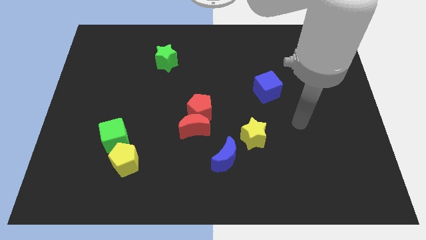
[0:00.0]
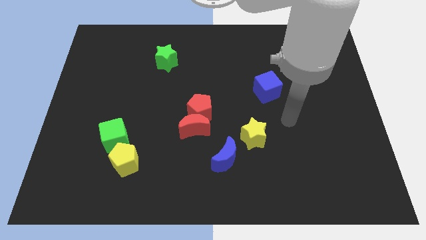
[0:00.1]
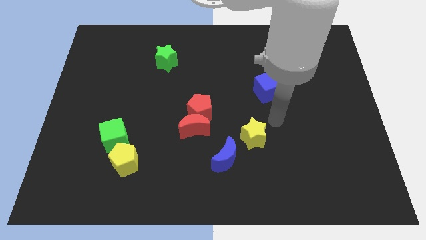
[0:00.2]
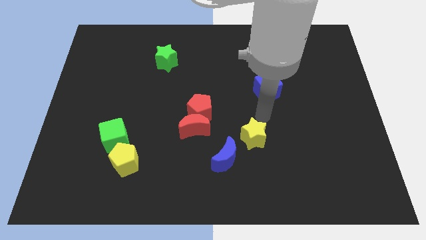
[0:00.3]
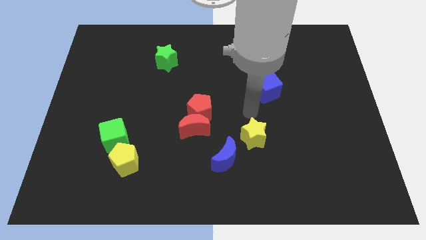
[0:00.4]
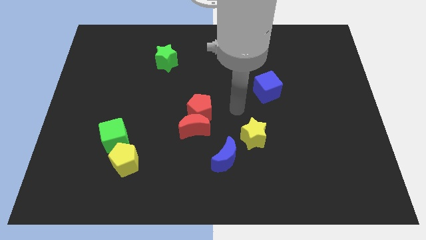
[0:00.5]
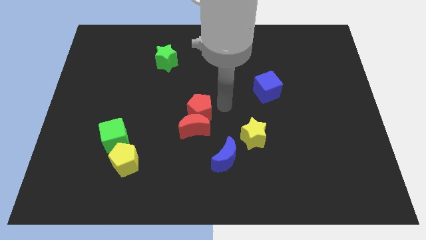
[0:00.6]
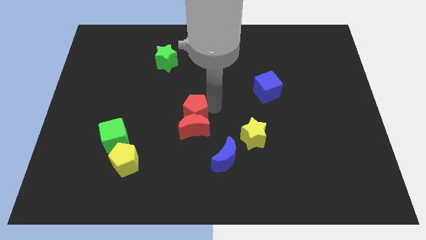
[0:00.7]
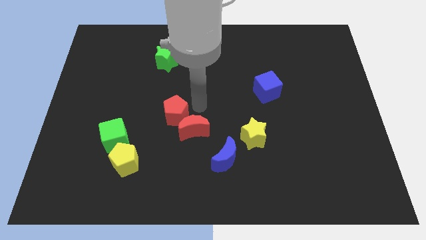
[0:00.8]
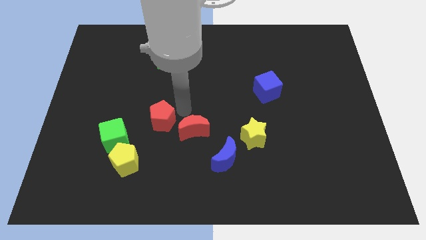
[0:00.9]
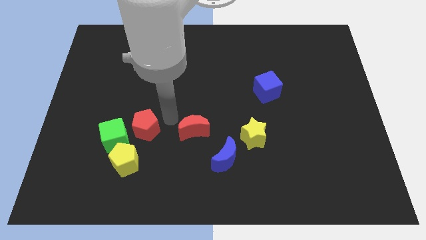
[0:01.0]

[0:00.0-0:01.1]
move the red moon away from the red pentagon

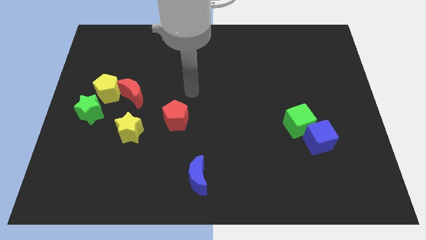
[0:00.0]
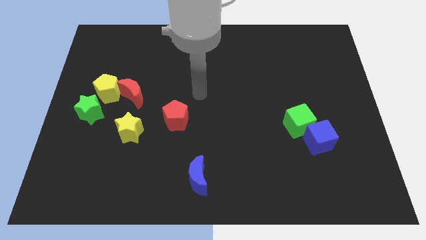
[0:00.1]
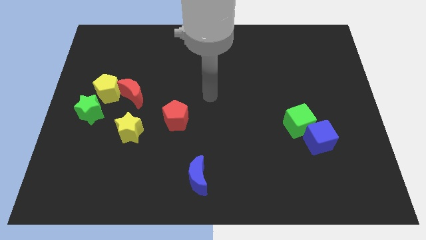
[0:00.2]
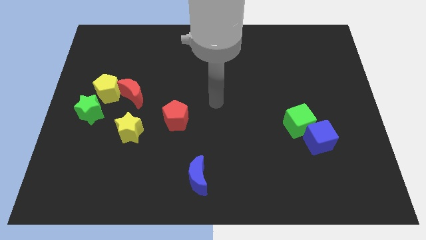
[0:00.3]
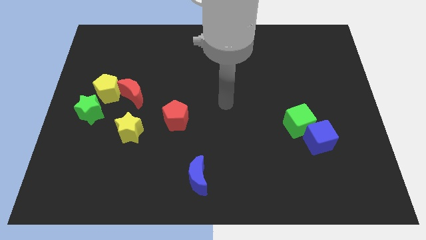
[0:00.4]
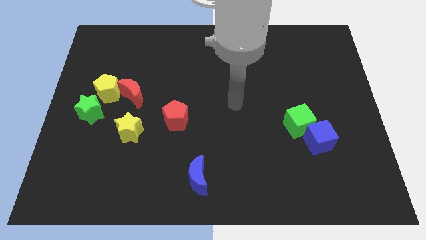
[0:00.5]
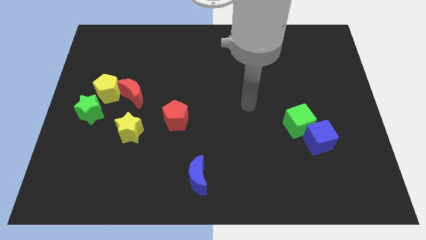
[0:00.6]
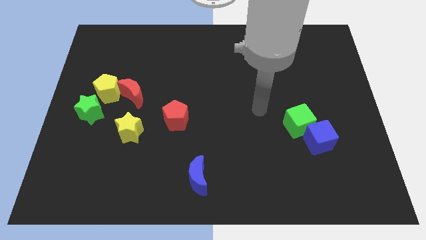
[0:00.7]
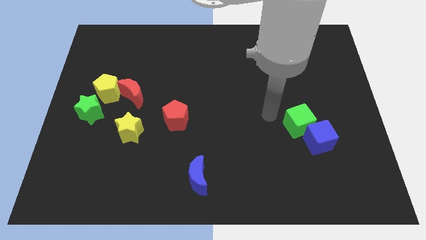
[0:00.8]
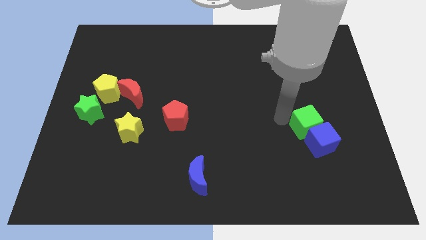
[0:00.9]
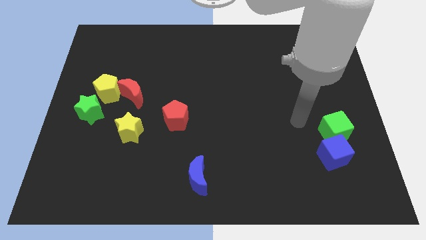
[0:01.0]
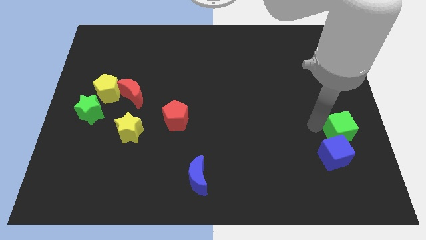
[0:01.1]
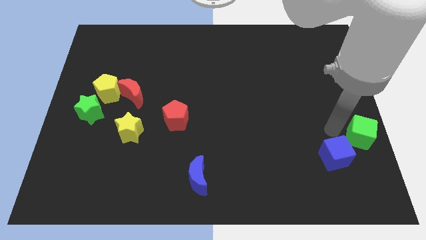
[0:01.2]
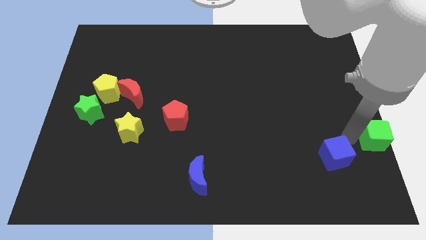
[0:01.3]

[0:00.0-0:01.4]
separate the blue cube from the green cube

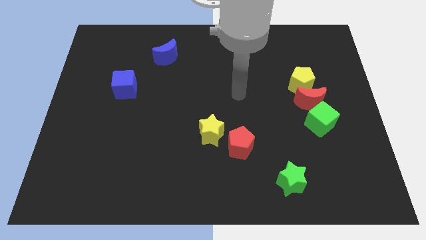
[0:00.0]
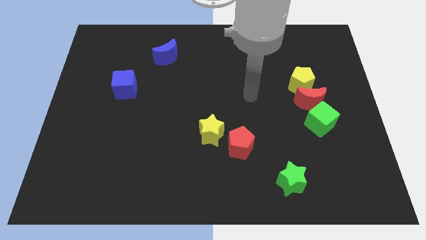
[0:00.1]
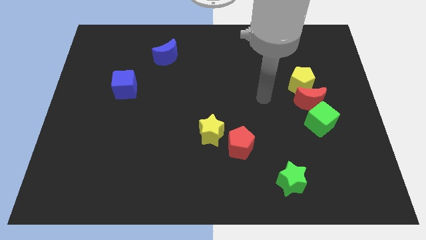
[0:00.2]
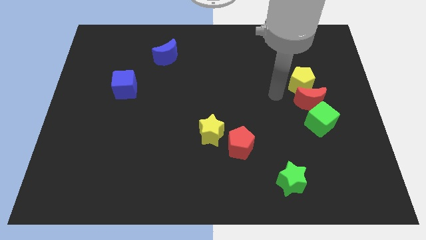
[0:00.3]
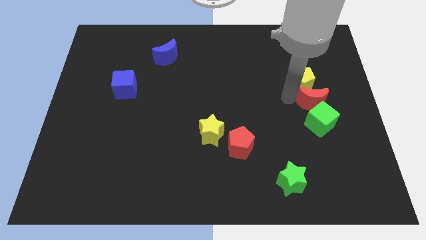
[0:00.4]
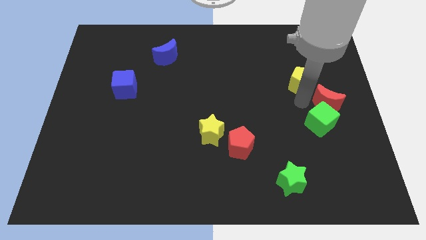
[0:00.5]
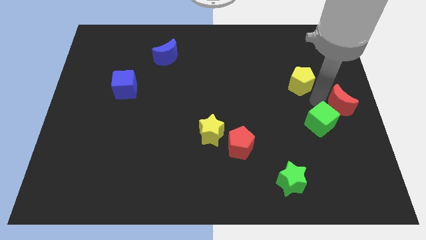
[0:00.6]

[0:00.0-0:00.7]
separate the yellow pentagon from the red moon

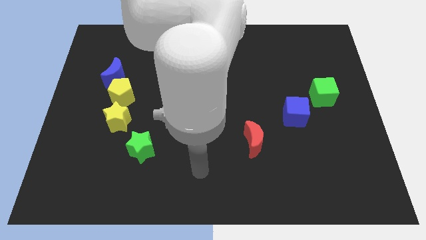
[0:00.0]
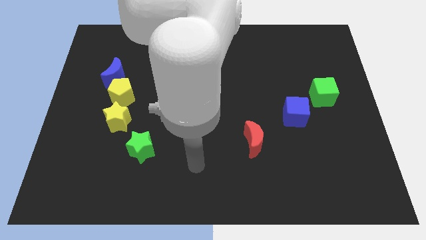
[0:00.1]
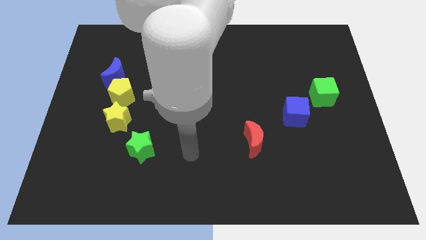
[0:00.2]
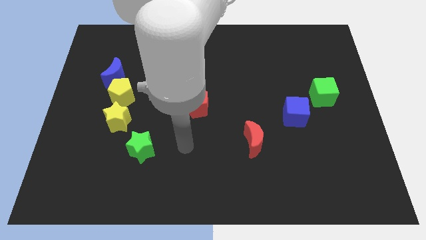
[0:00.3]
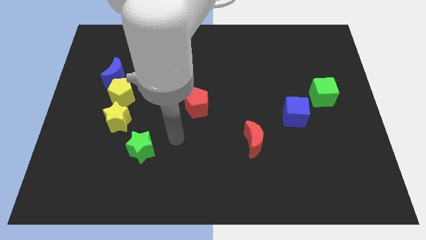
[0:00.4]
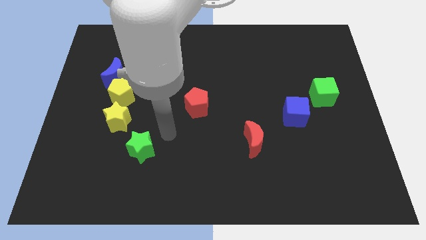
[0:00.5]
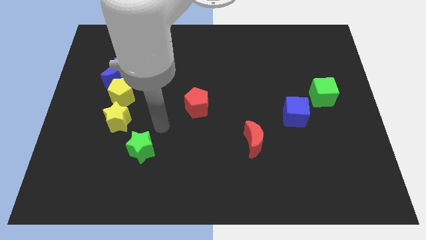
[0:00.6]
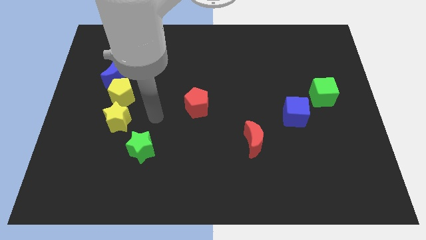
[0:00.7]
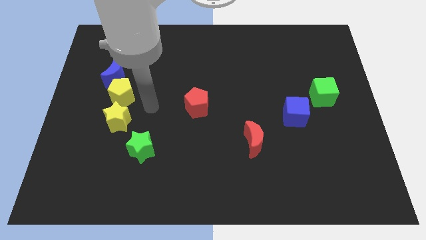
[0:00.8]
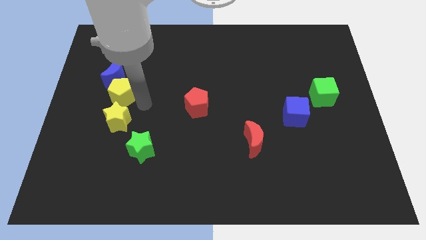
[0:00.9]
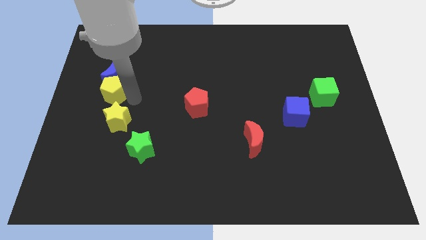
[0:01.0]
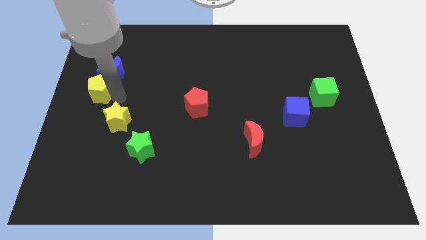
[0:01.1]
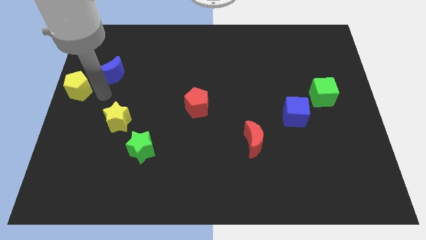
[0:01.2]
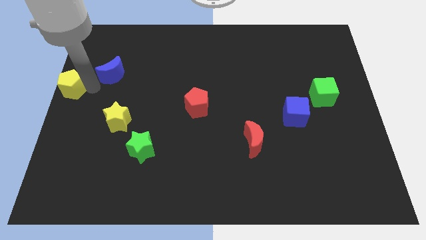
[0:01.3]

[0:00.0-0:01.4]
move the blue moon away from the yellow pentagon

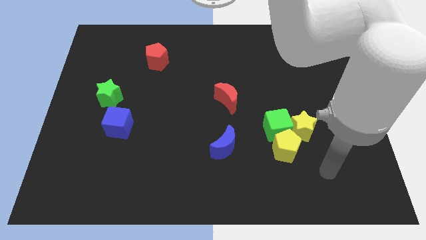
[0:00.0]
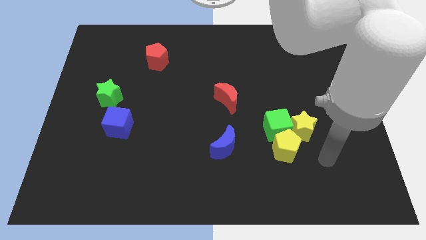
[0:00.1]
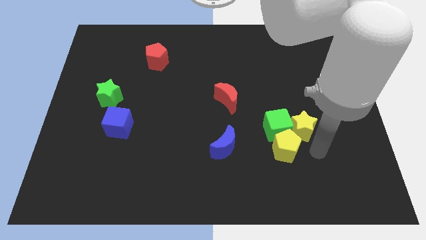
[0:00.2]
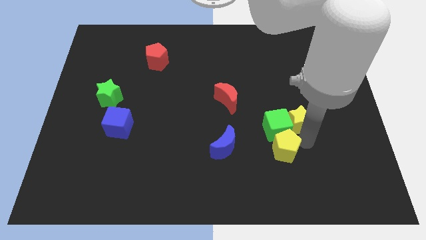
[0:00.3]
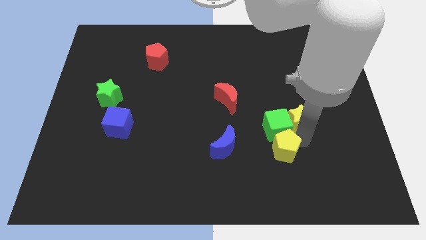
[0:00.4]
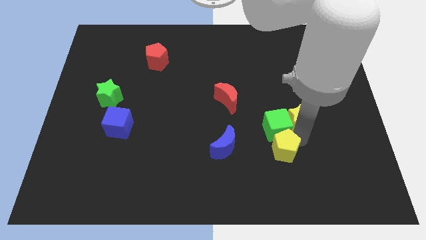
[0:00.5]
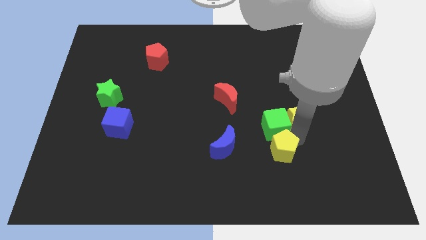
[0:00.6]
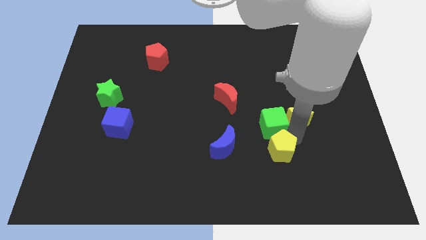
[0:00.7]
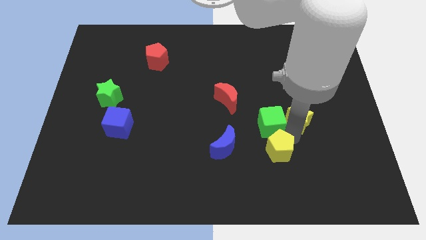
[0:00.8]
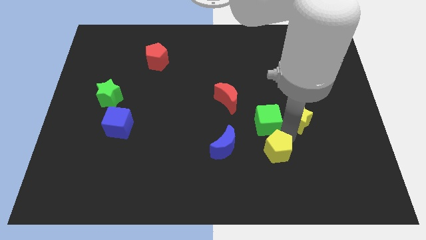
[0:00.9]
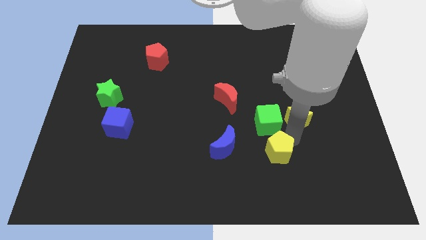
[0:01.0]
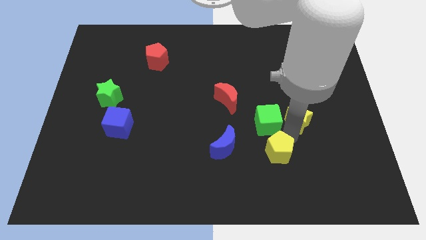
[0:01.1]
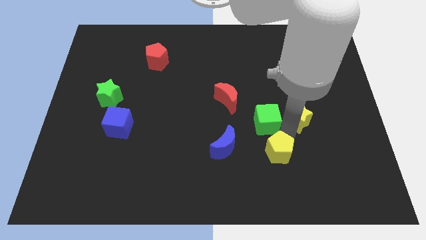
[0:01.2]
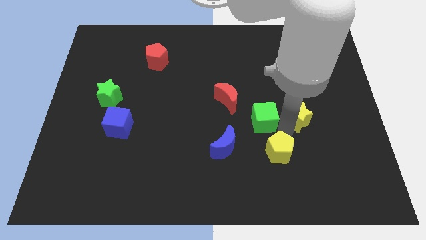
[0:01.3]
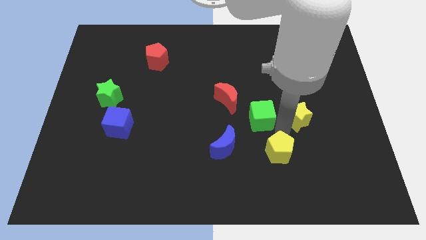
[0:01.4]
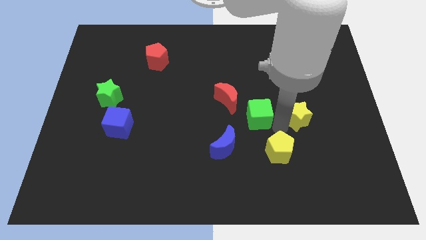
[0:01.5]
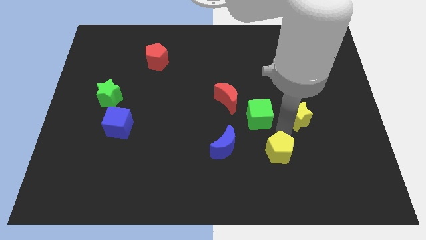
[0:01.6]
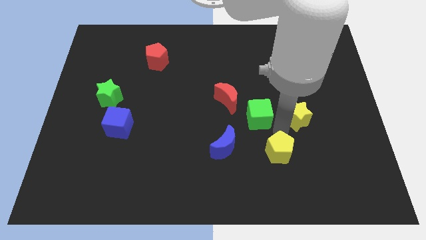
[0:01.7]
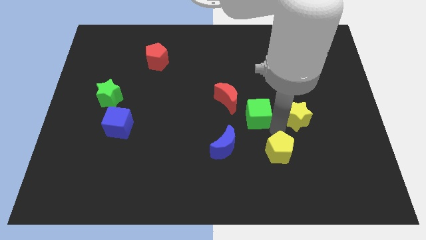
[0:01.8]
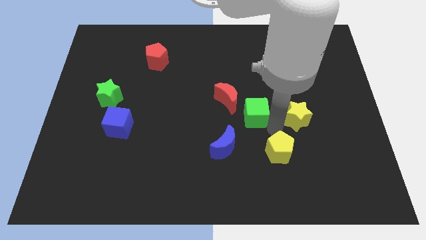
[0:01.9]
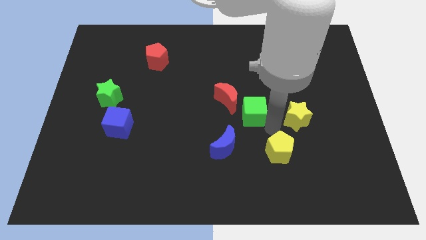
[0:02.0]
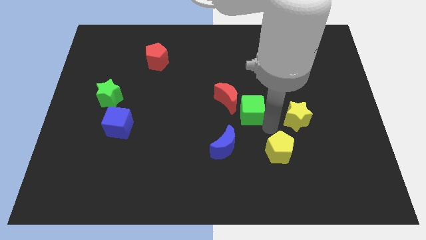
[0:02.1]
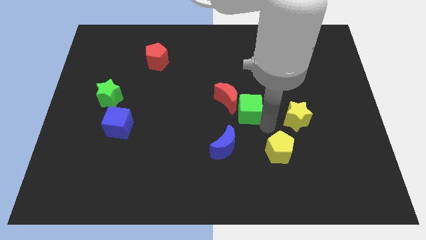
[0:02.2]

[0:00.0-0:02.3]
separate the green cube from the yellow pentagon and yellow star

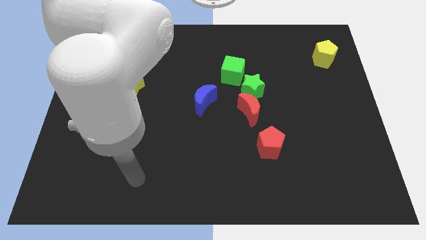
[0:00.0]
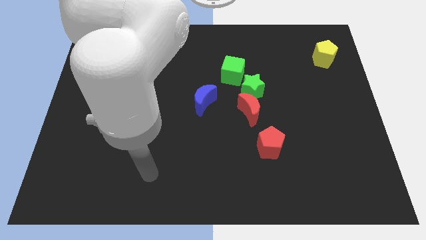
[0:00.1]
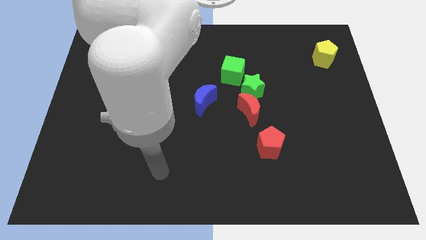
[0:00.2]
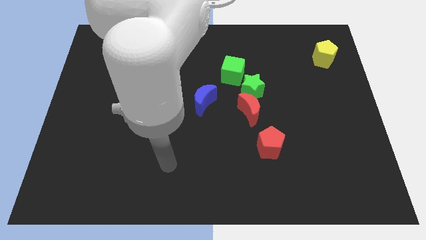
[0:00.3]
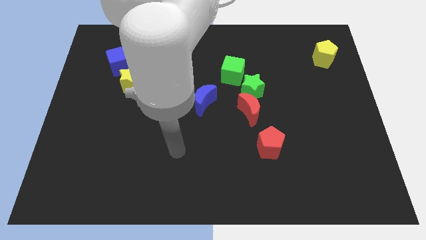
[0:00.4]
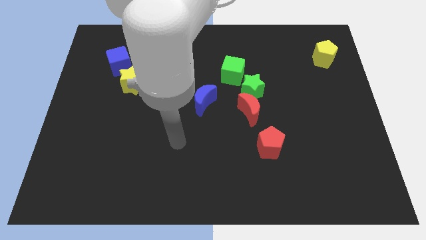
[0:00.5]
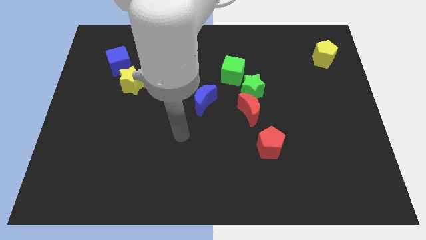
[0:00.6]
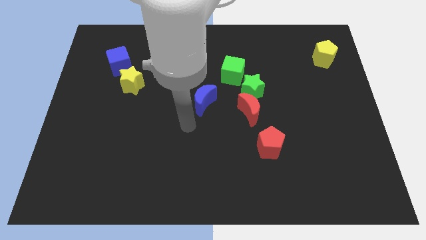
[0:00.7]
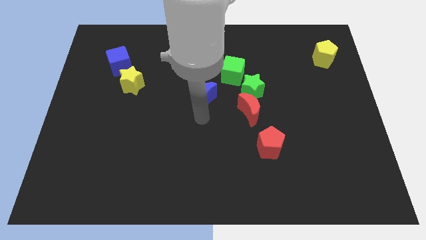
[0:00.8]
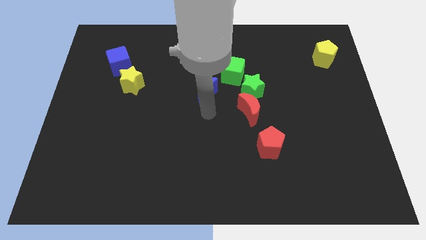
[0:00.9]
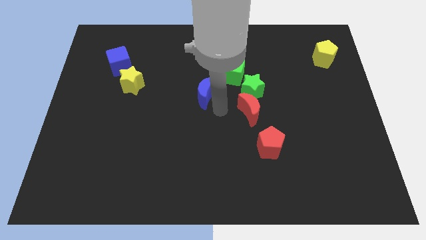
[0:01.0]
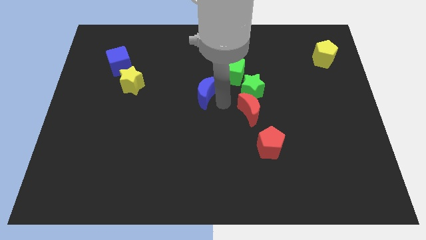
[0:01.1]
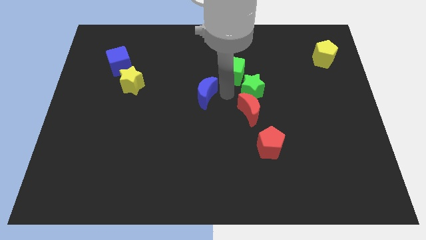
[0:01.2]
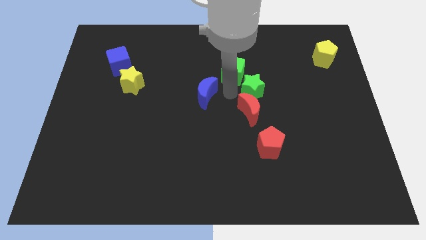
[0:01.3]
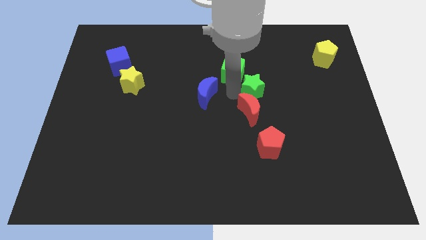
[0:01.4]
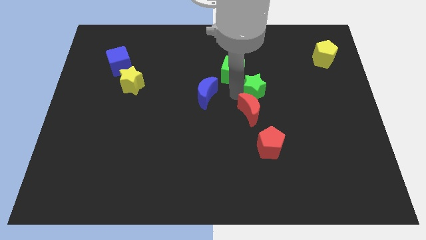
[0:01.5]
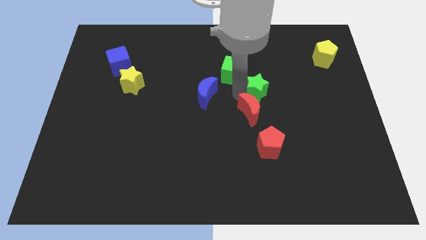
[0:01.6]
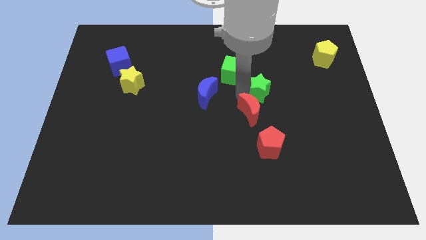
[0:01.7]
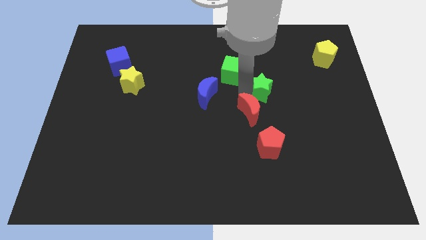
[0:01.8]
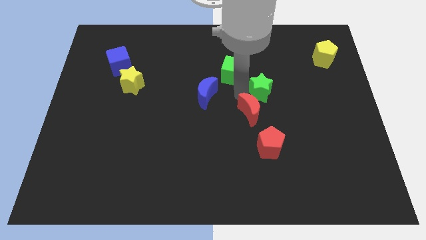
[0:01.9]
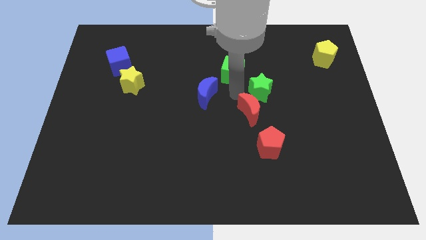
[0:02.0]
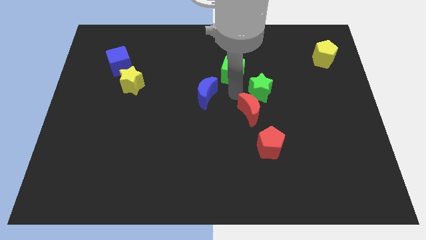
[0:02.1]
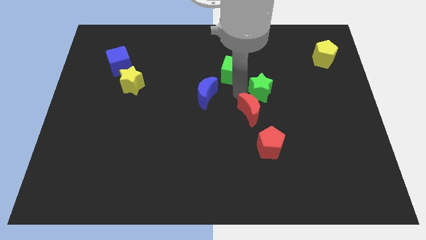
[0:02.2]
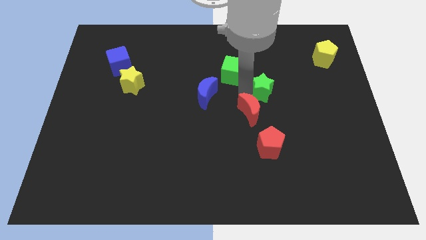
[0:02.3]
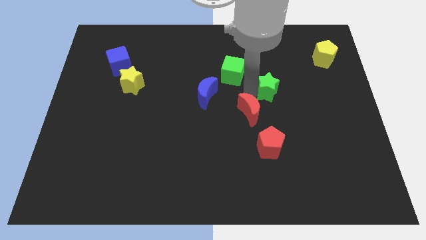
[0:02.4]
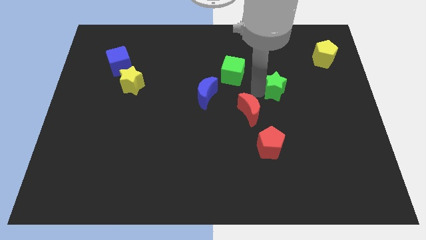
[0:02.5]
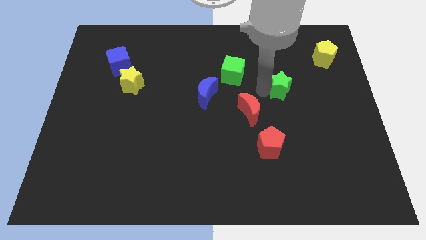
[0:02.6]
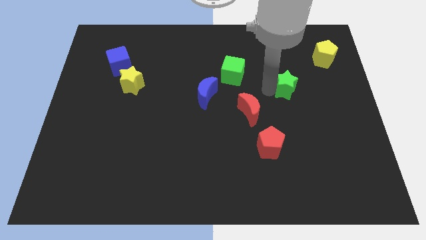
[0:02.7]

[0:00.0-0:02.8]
separate the green star from the red moon and green cube
